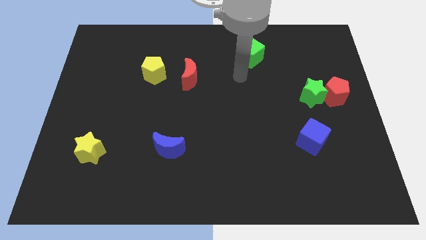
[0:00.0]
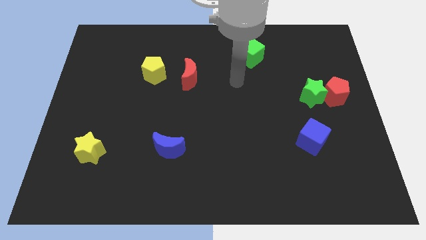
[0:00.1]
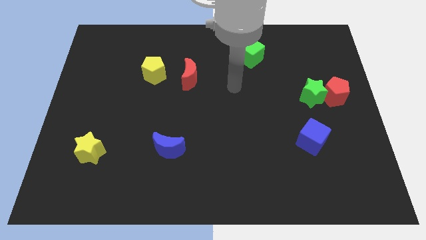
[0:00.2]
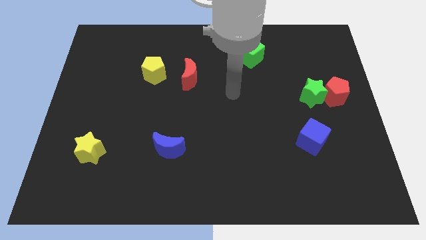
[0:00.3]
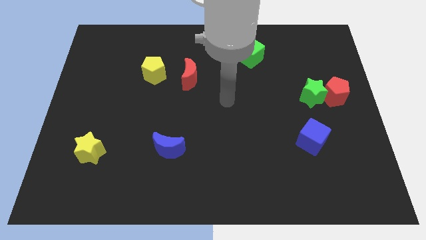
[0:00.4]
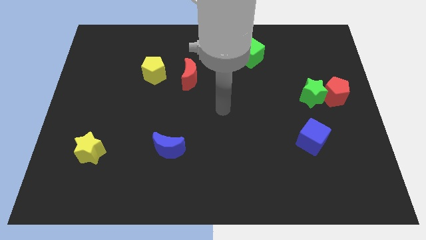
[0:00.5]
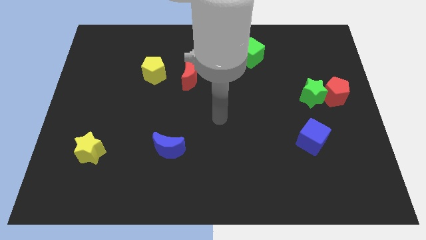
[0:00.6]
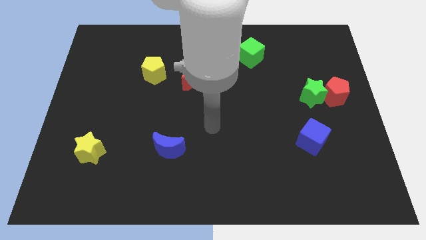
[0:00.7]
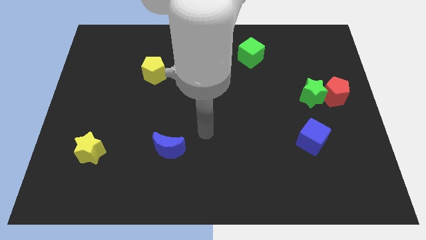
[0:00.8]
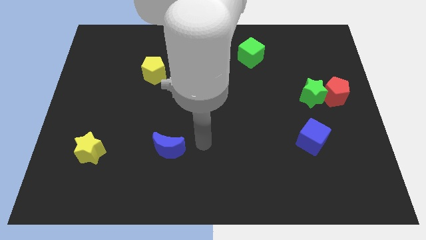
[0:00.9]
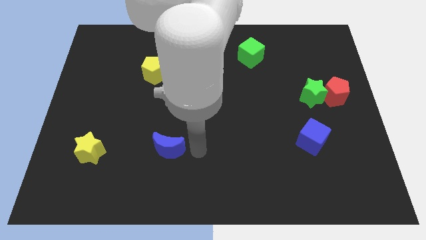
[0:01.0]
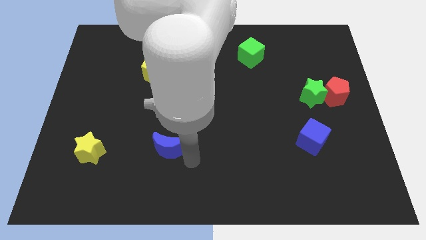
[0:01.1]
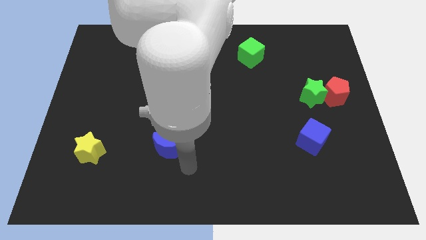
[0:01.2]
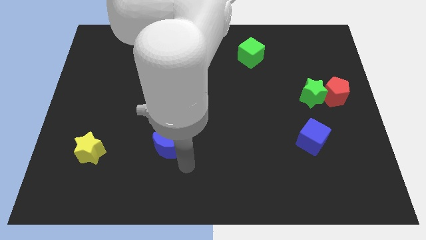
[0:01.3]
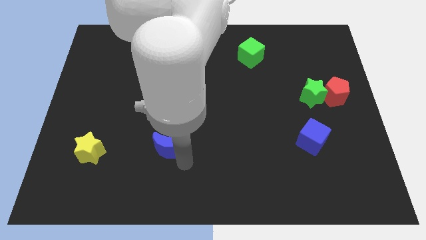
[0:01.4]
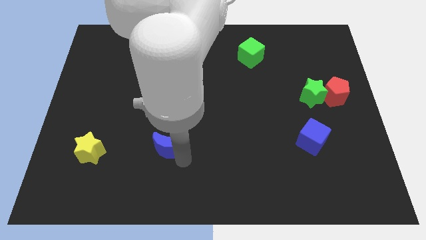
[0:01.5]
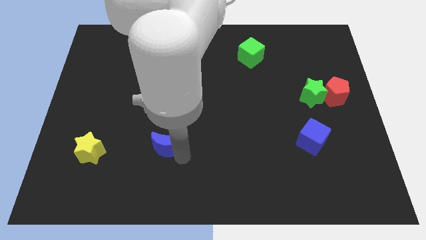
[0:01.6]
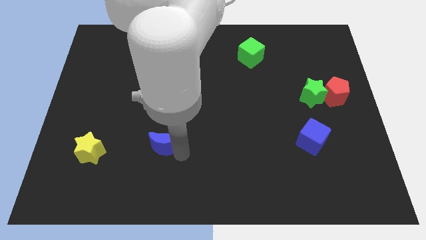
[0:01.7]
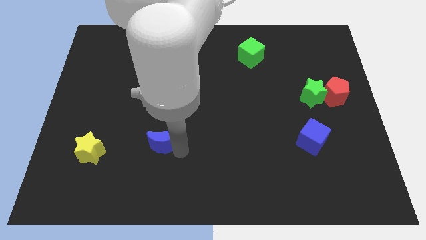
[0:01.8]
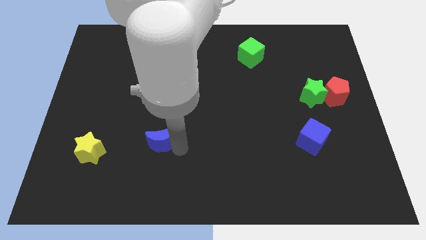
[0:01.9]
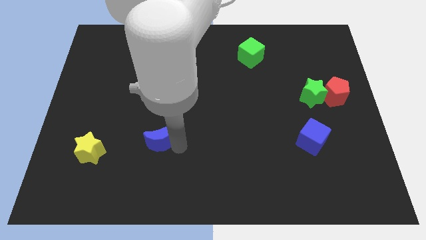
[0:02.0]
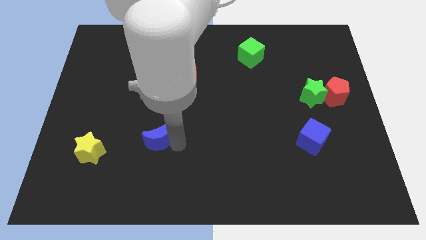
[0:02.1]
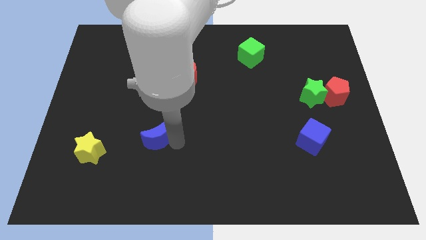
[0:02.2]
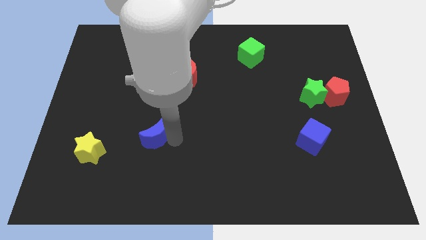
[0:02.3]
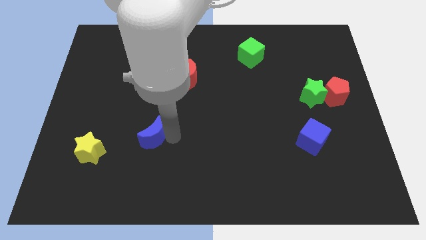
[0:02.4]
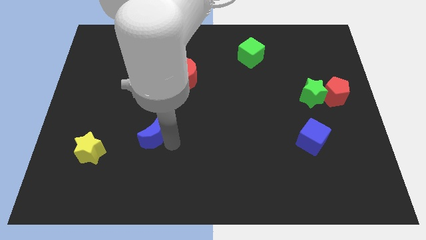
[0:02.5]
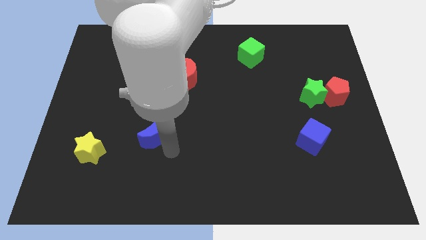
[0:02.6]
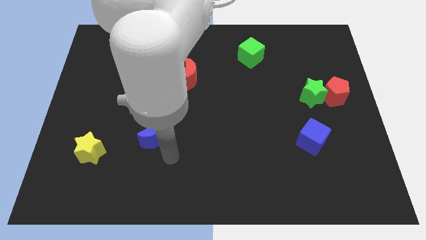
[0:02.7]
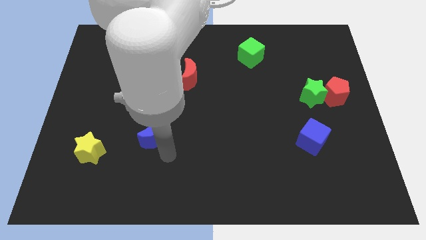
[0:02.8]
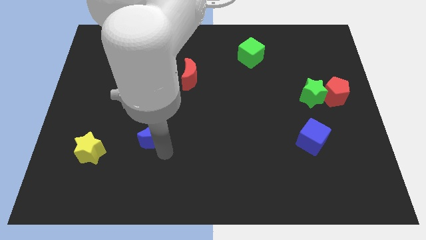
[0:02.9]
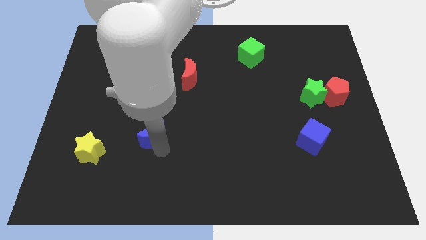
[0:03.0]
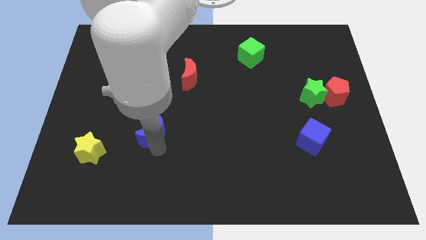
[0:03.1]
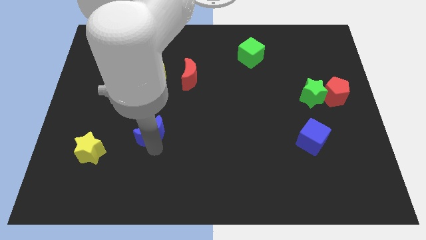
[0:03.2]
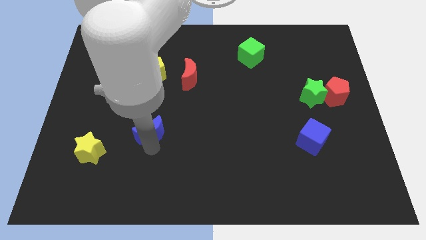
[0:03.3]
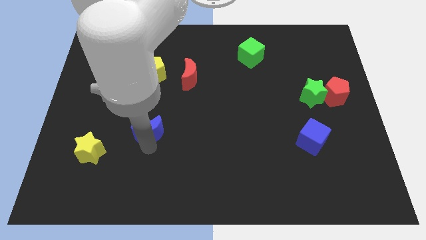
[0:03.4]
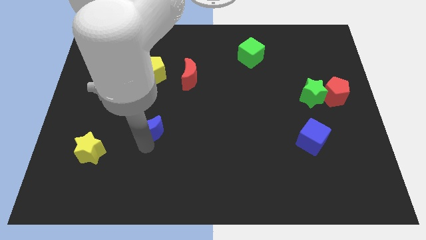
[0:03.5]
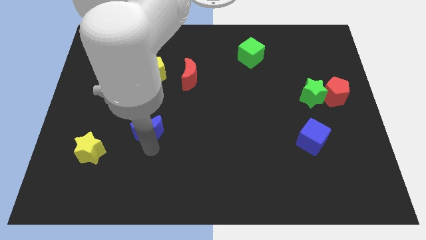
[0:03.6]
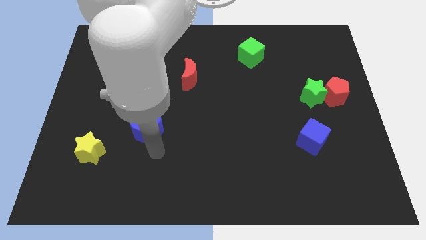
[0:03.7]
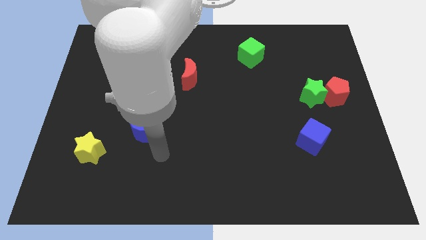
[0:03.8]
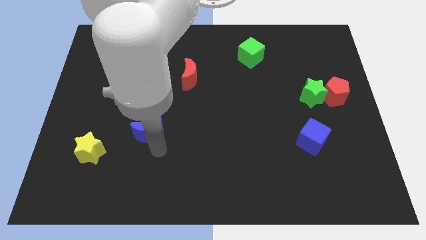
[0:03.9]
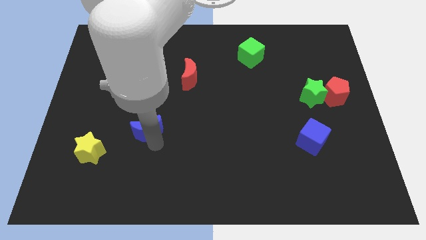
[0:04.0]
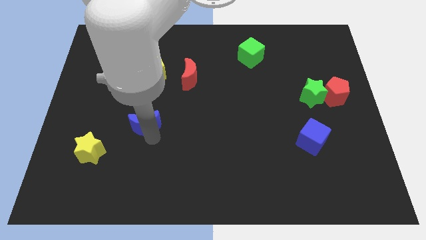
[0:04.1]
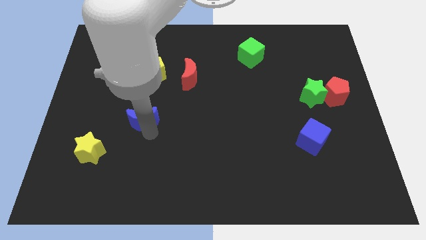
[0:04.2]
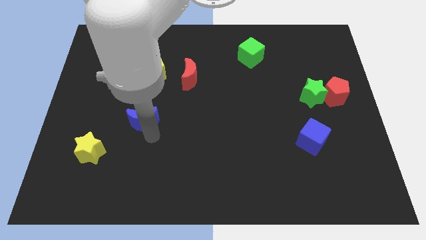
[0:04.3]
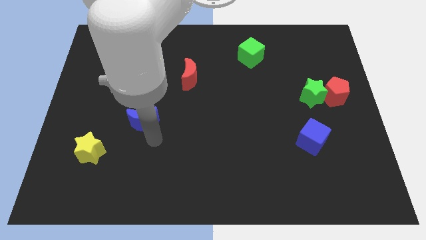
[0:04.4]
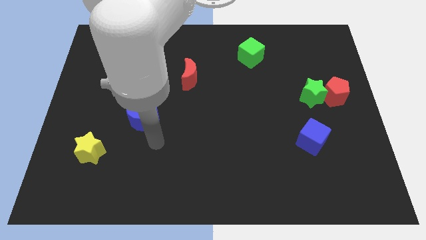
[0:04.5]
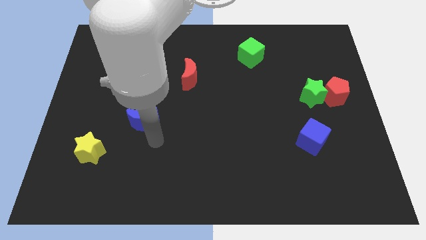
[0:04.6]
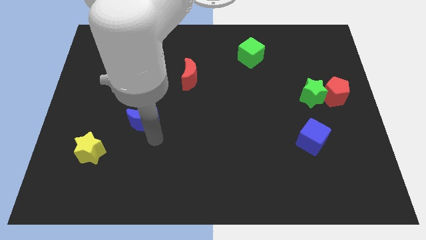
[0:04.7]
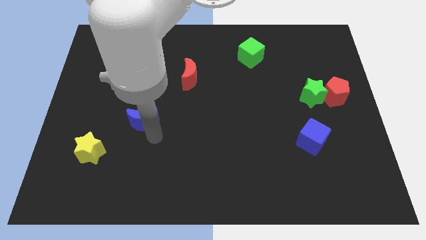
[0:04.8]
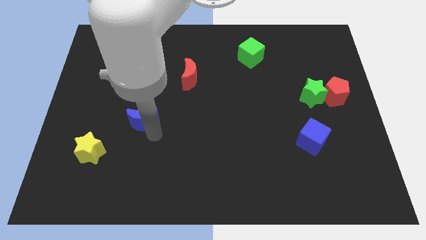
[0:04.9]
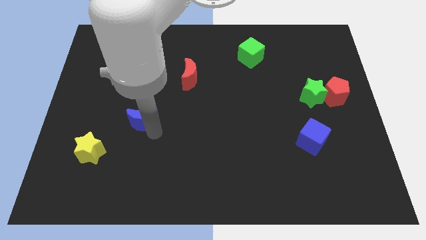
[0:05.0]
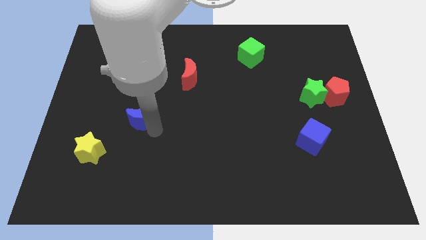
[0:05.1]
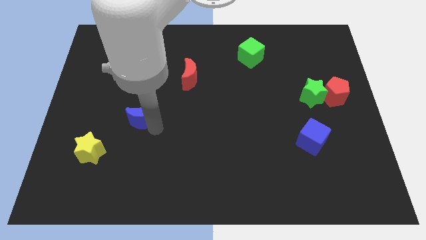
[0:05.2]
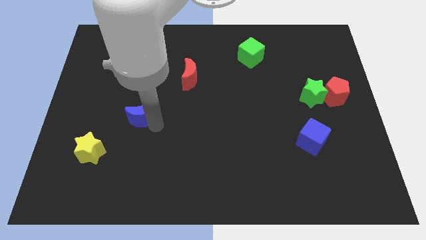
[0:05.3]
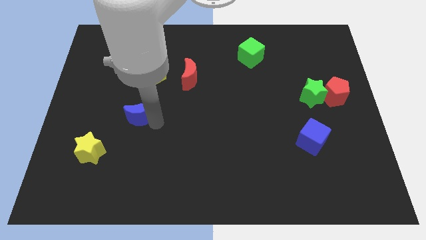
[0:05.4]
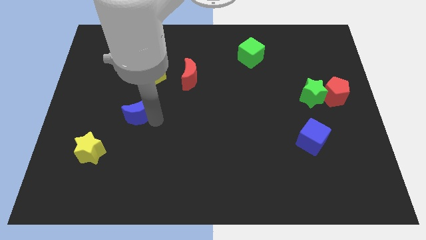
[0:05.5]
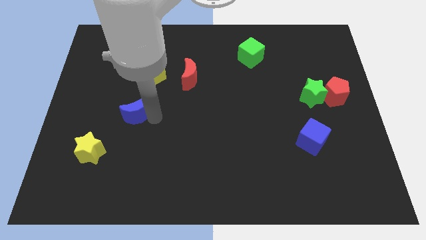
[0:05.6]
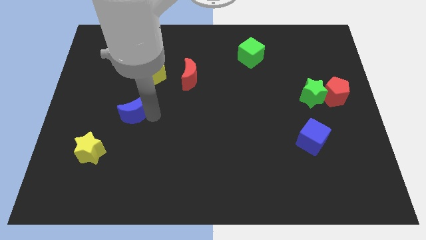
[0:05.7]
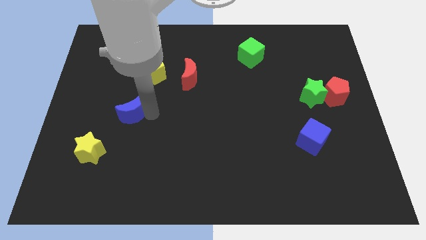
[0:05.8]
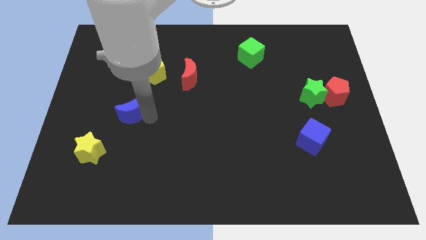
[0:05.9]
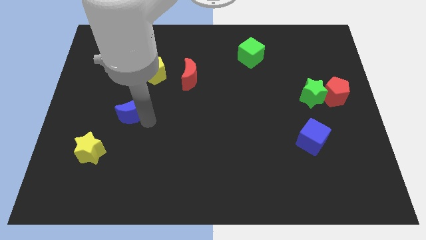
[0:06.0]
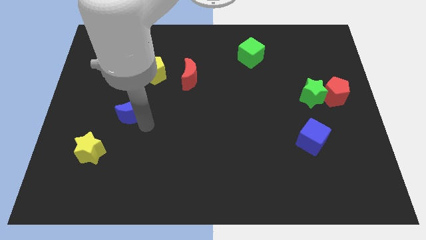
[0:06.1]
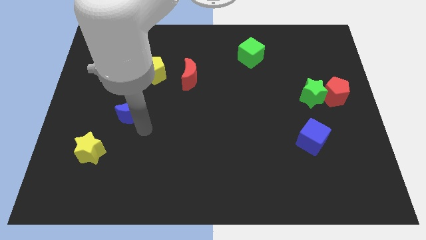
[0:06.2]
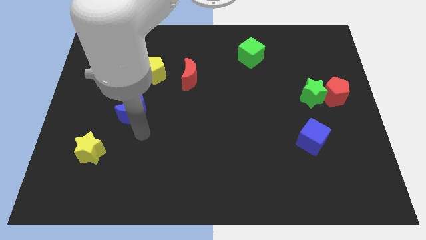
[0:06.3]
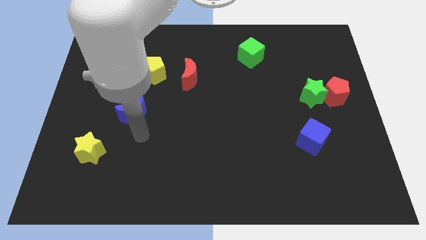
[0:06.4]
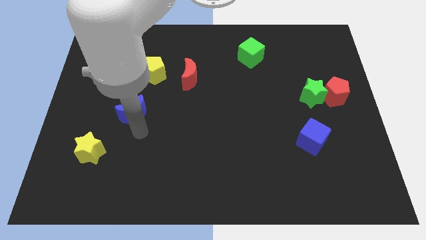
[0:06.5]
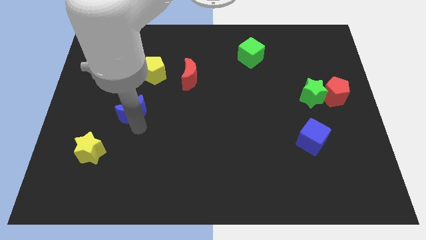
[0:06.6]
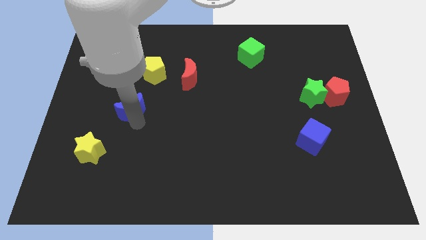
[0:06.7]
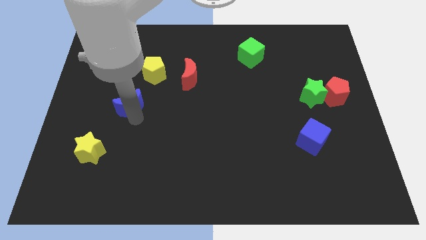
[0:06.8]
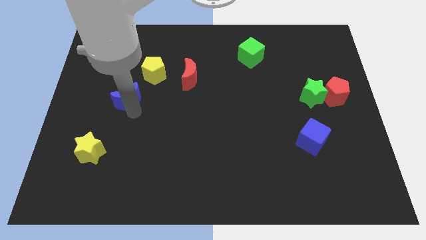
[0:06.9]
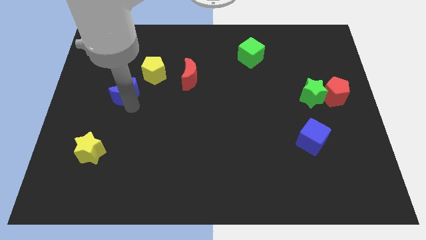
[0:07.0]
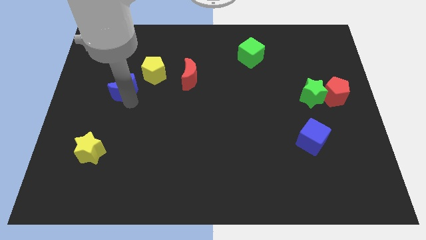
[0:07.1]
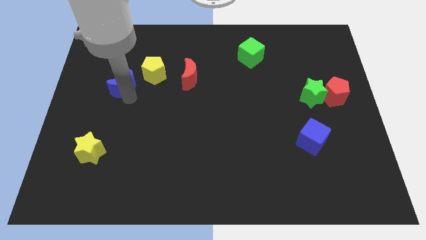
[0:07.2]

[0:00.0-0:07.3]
push the blue moon to the left side of the yellow pentagon

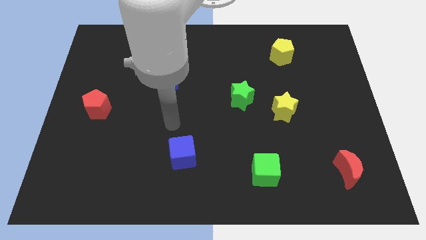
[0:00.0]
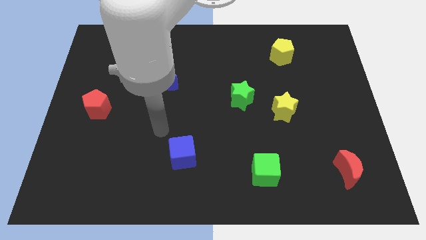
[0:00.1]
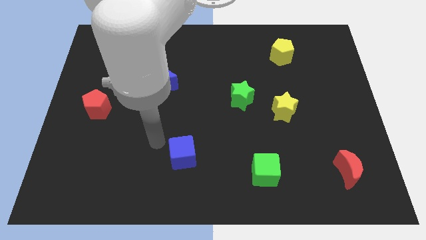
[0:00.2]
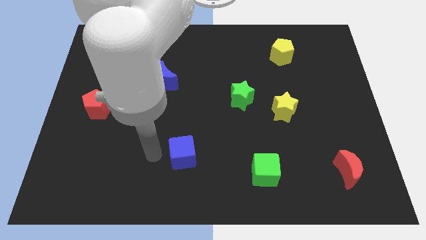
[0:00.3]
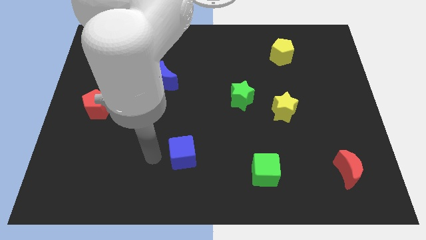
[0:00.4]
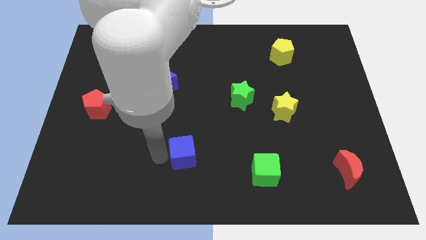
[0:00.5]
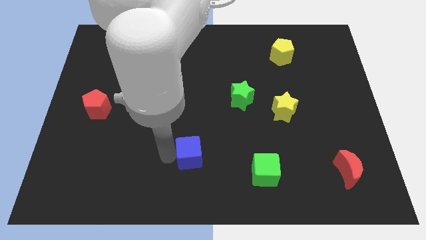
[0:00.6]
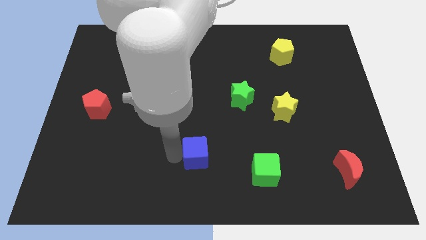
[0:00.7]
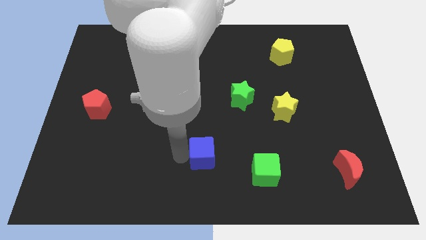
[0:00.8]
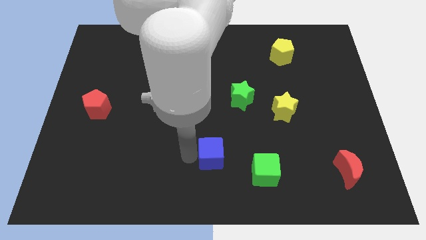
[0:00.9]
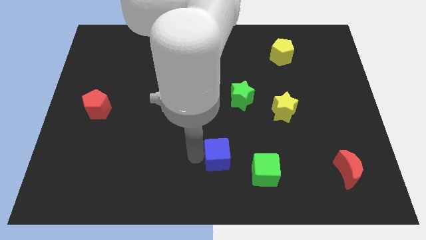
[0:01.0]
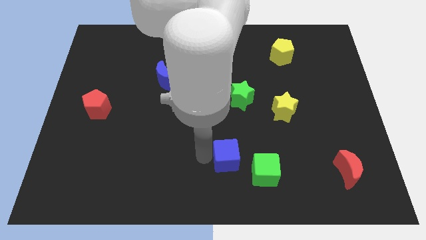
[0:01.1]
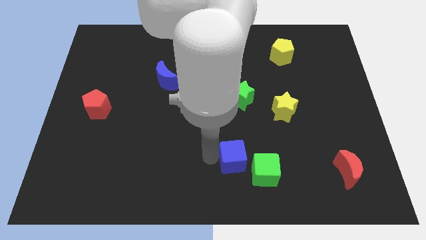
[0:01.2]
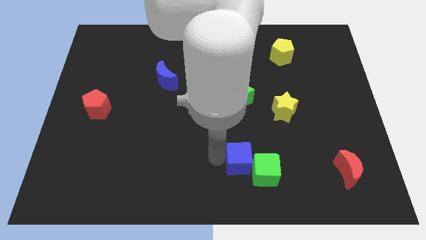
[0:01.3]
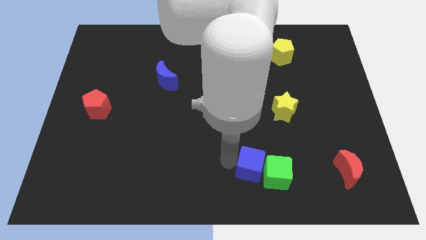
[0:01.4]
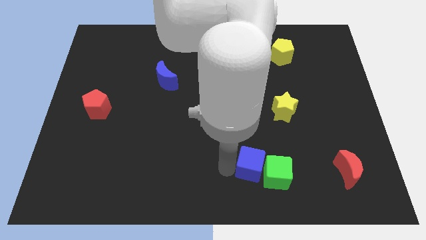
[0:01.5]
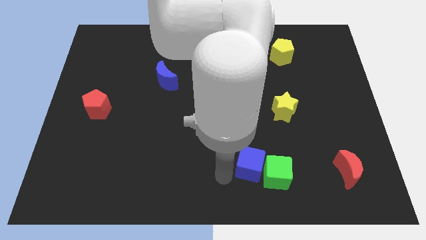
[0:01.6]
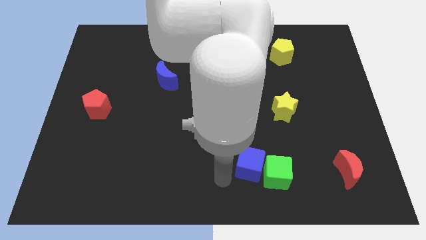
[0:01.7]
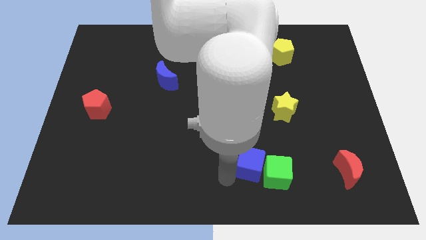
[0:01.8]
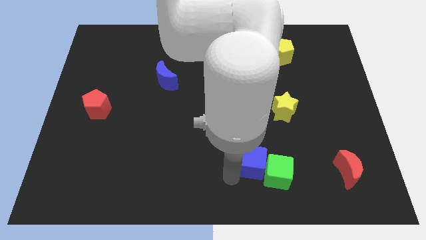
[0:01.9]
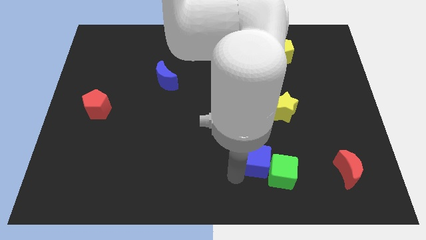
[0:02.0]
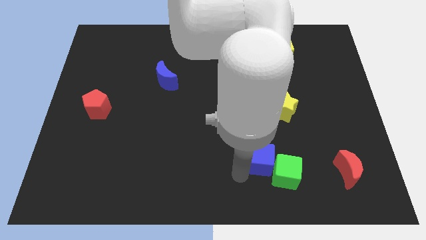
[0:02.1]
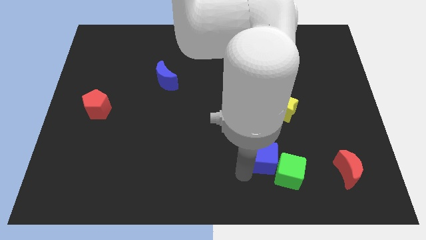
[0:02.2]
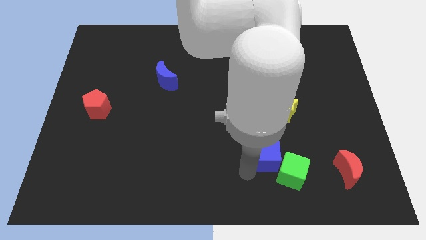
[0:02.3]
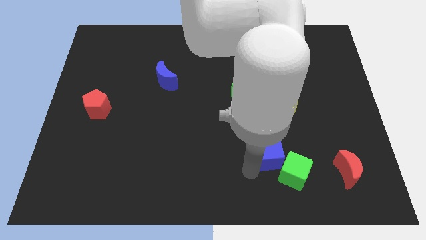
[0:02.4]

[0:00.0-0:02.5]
slide the blue cube to the bottom side of the yellow star
